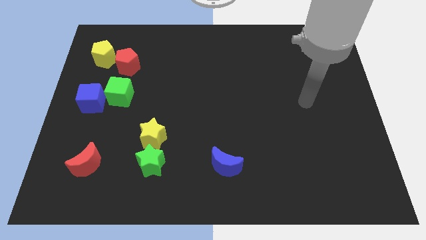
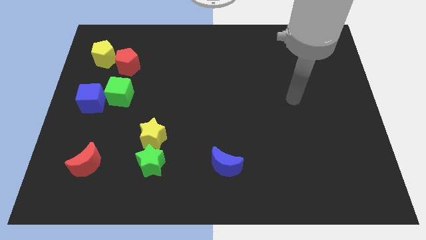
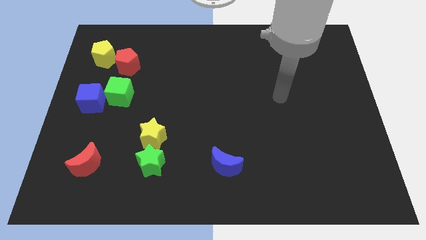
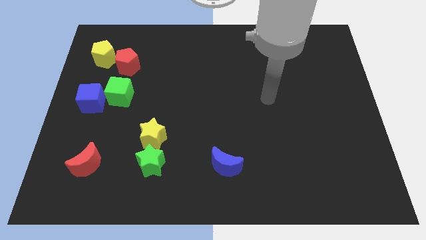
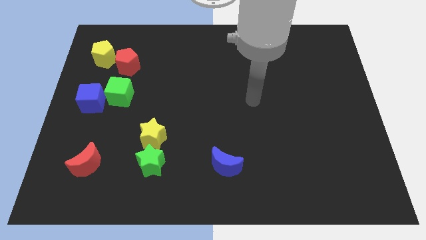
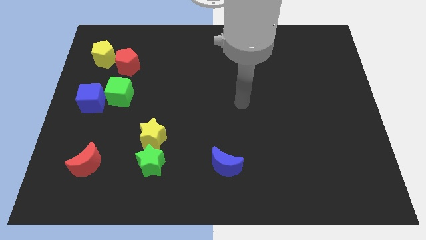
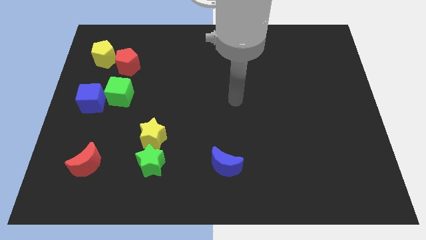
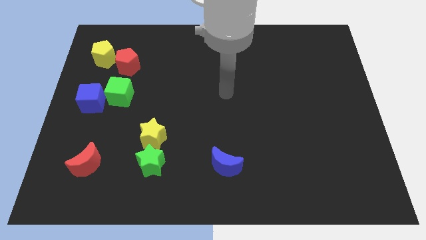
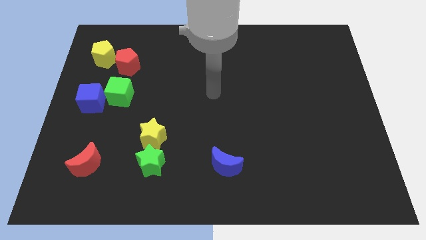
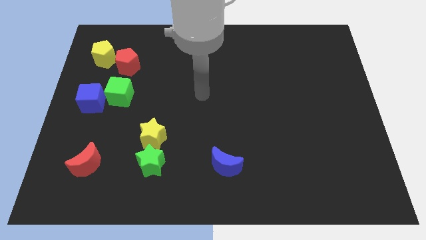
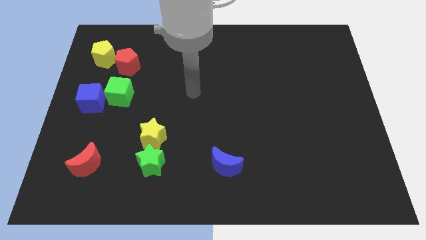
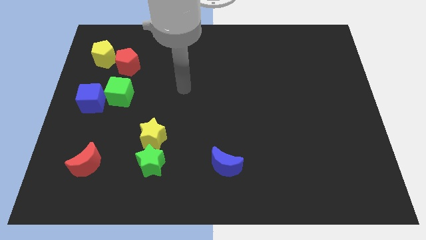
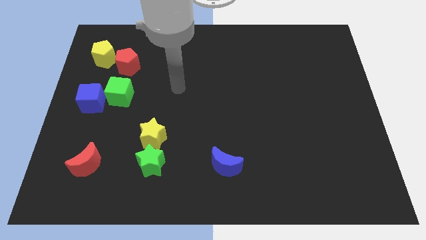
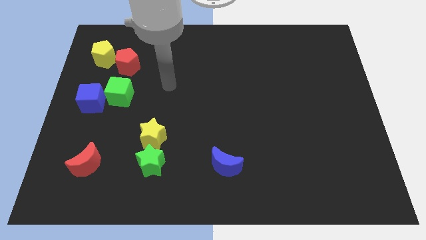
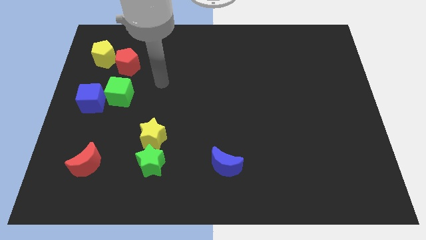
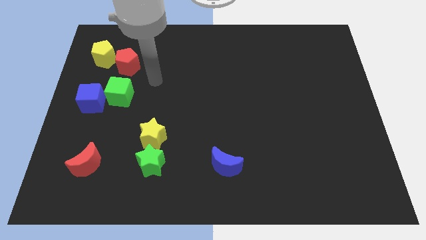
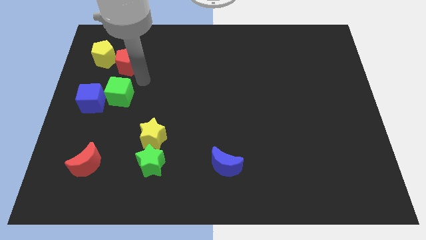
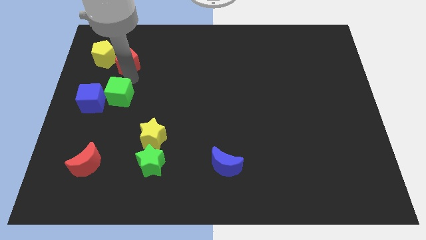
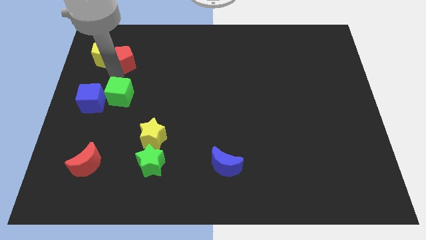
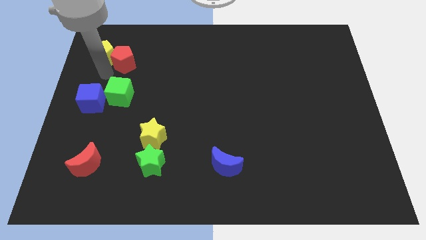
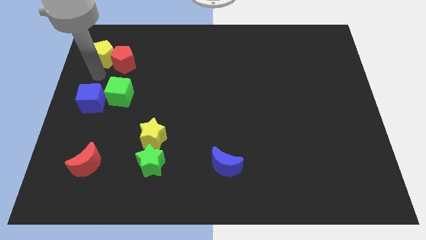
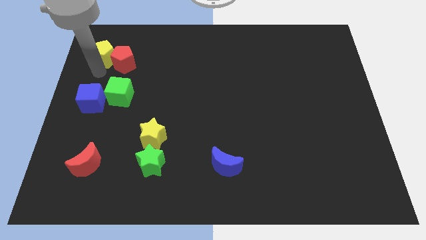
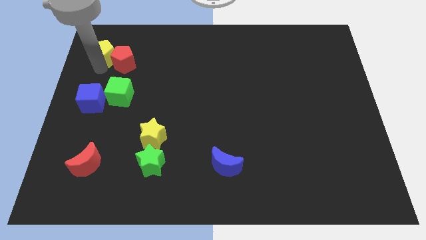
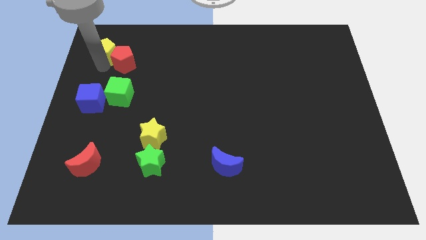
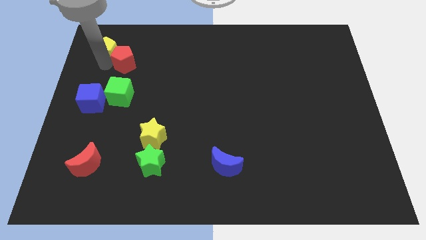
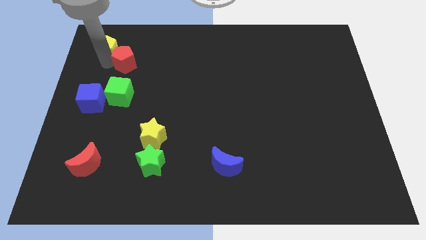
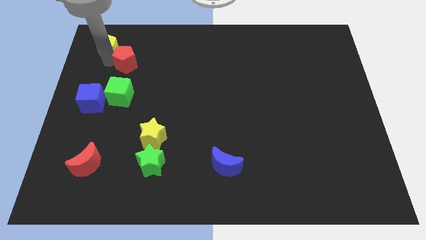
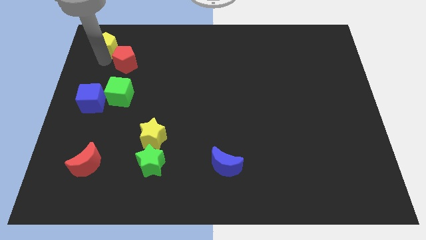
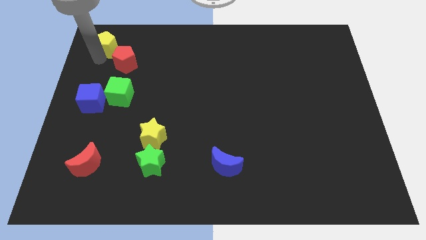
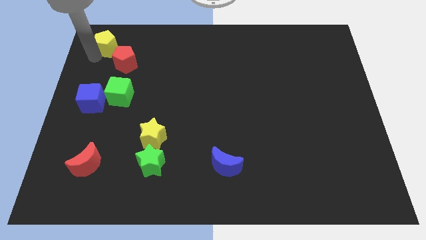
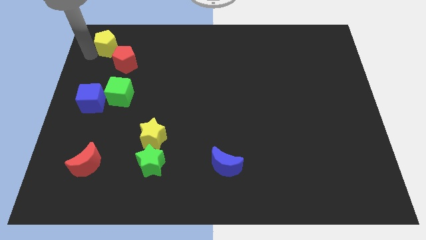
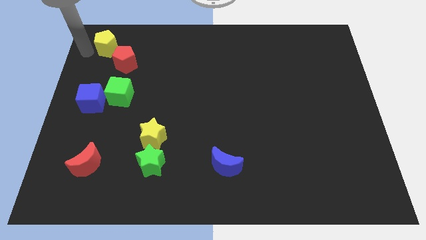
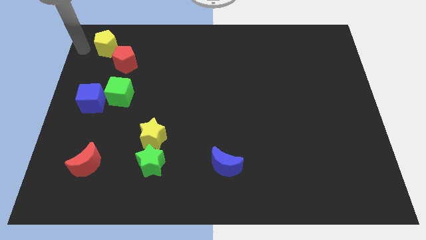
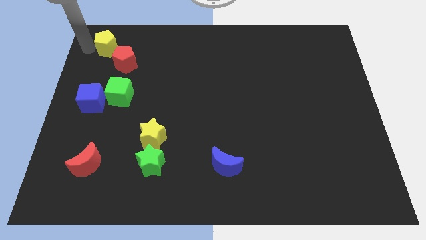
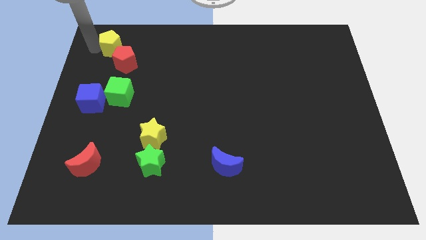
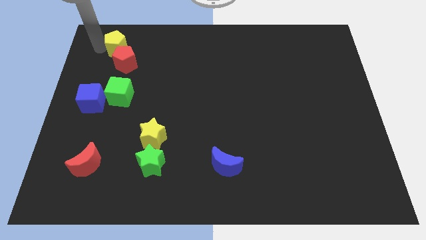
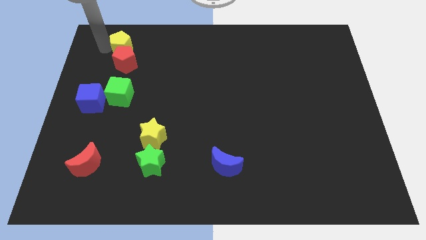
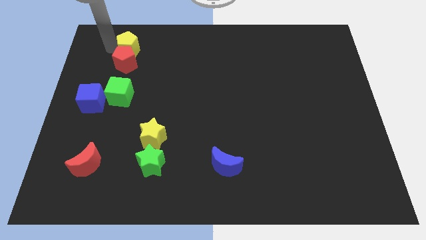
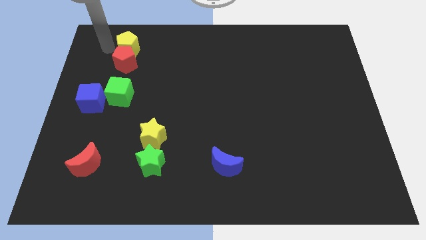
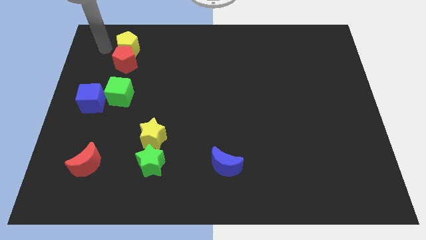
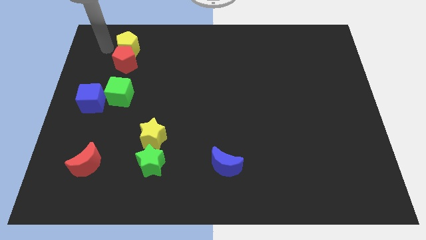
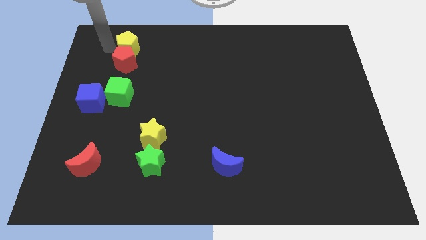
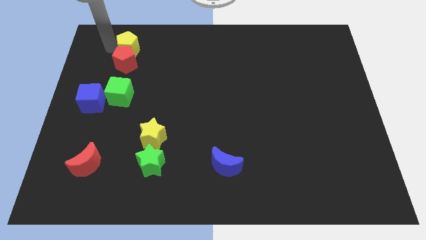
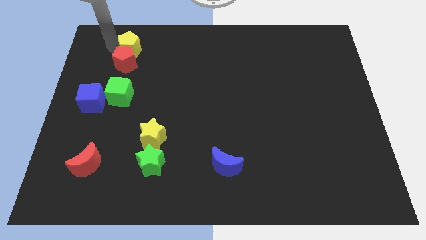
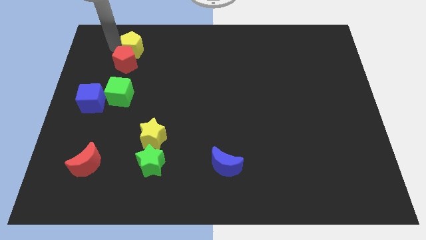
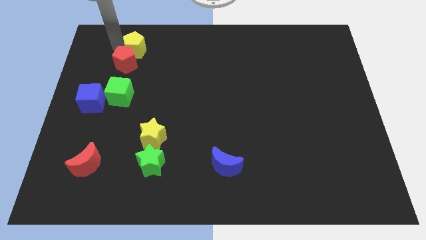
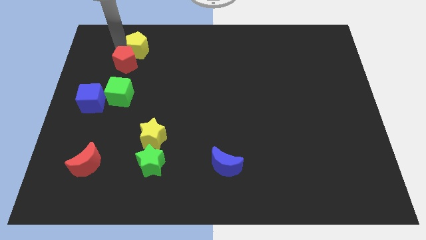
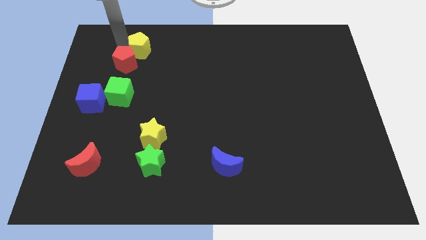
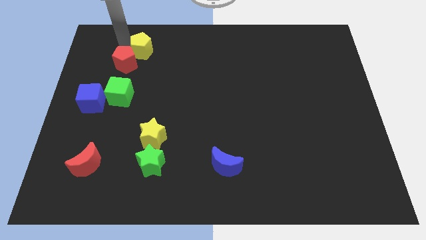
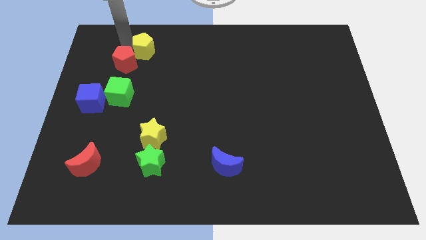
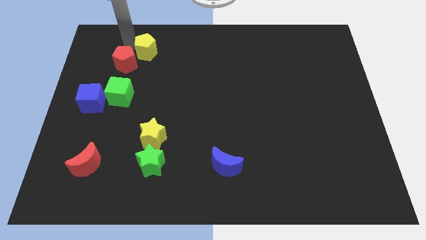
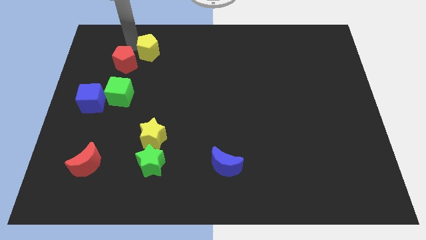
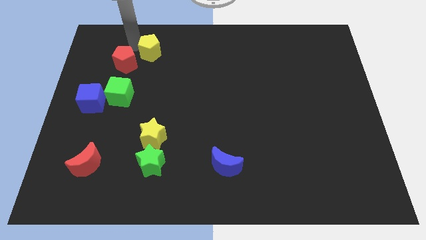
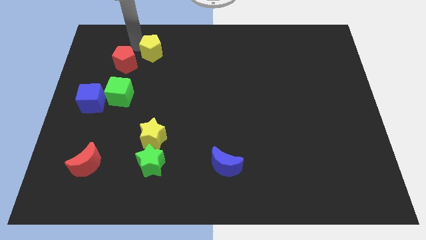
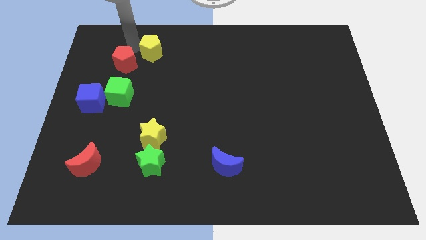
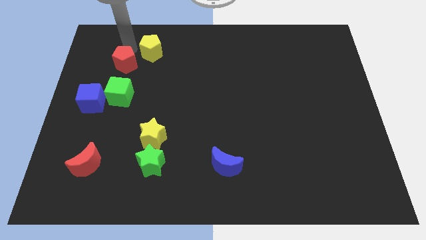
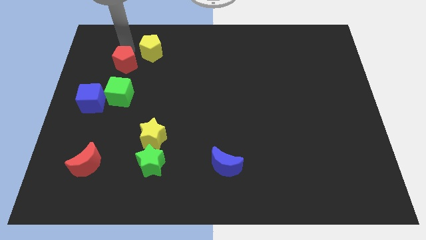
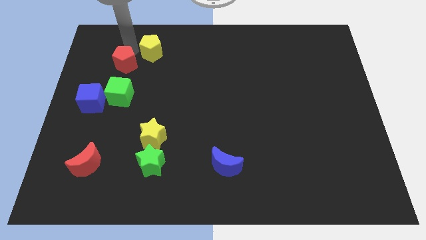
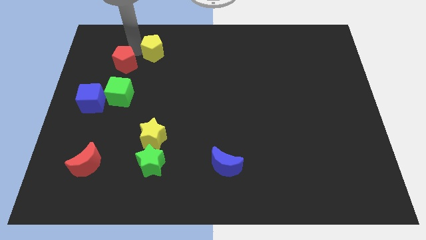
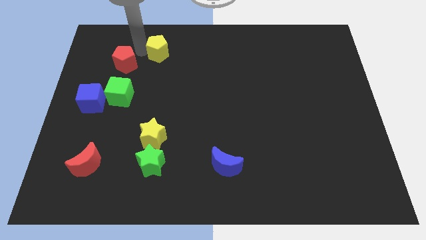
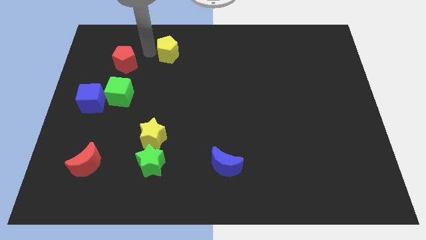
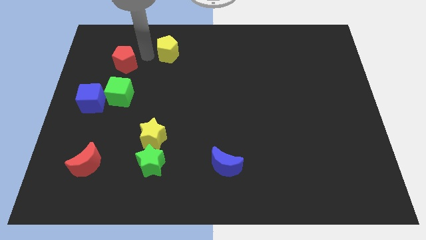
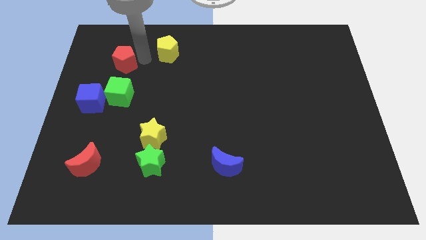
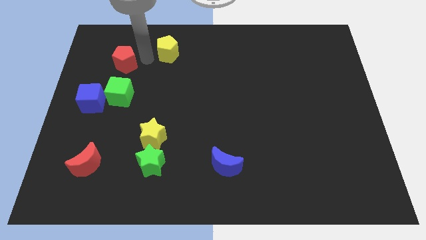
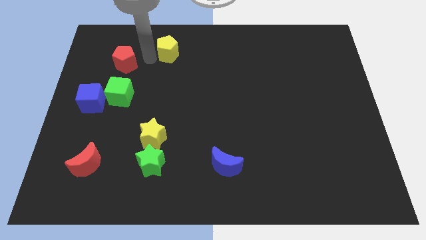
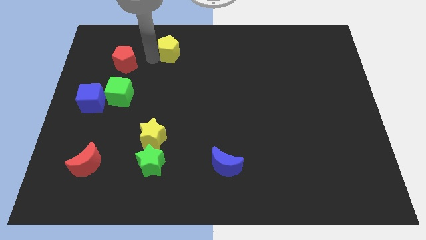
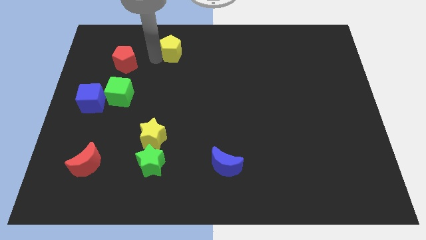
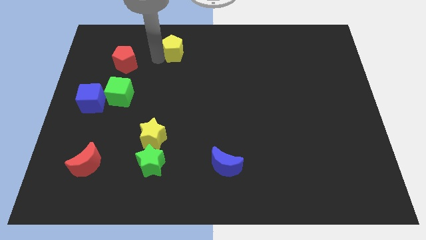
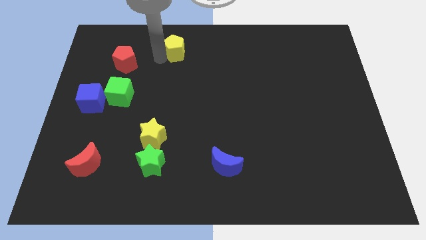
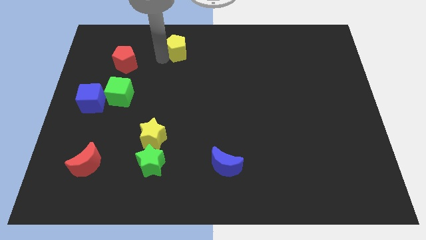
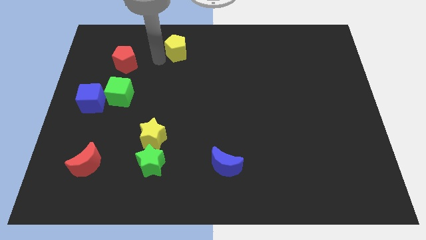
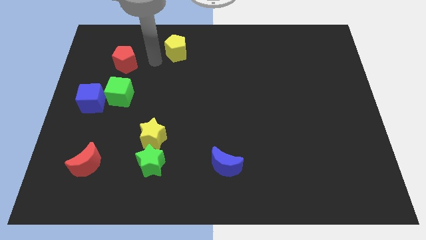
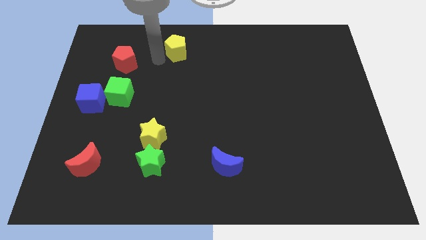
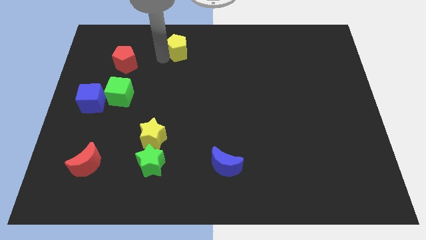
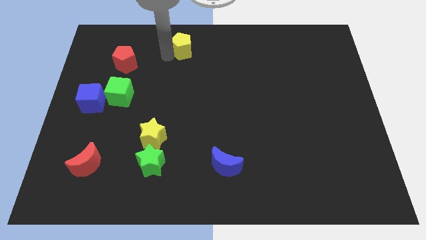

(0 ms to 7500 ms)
push the yellow pentagon to the right

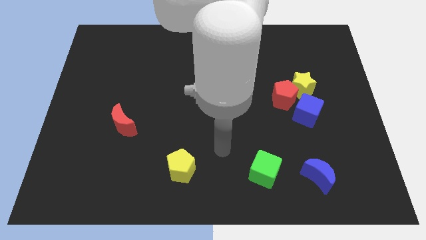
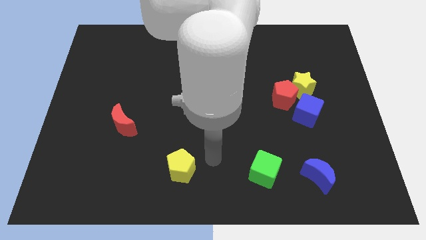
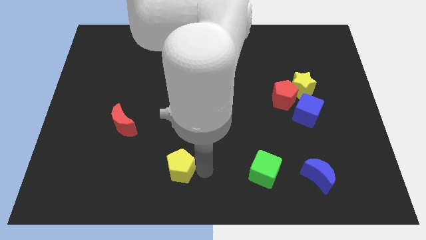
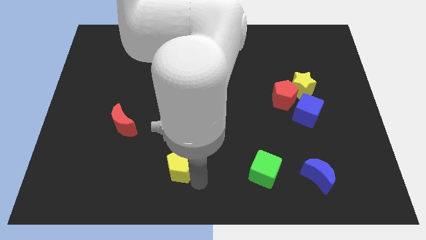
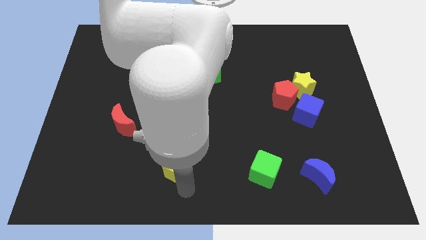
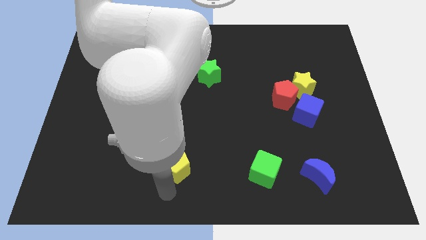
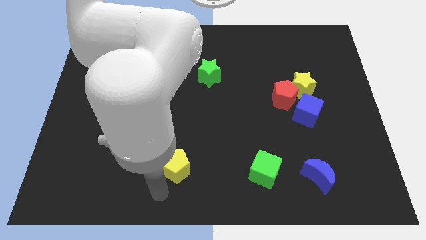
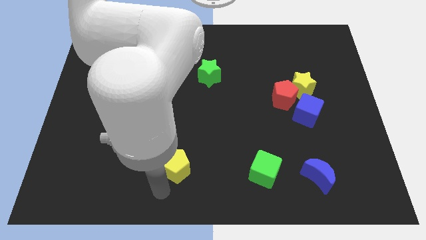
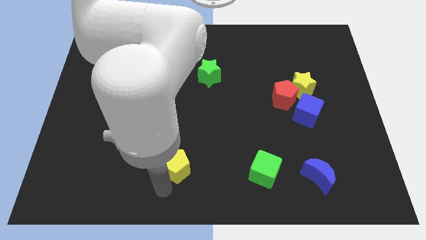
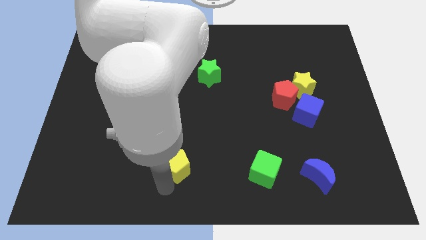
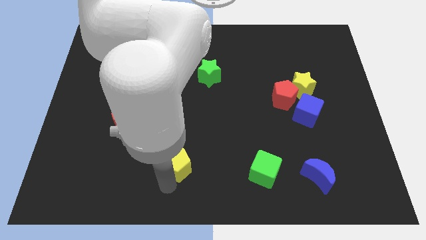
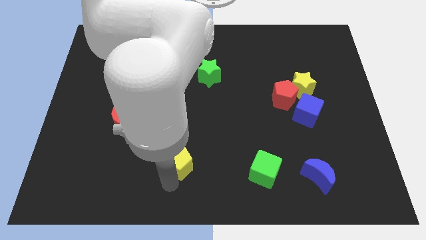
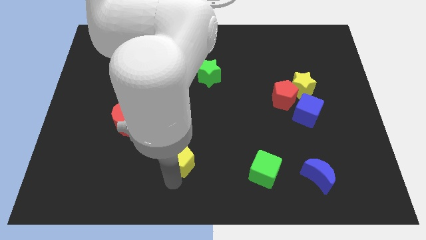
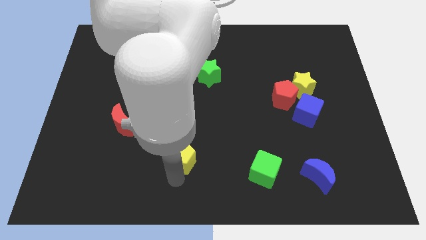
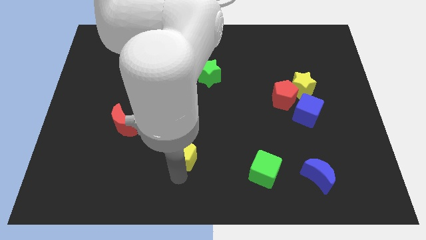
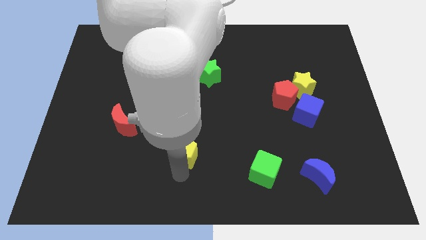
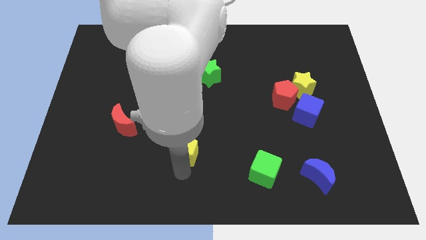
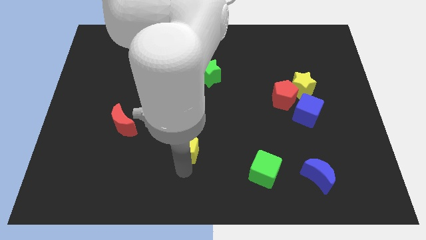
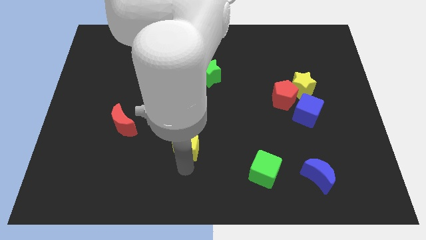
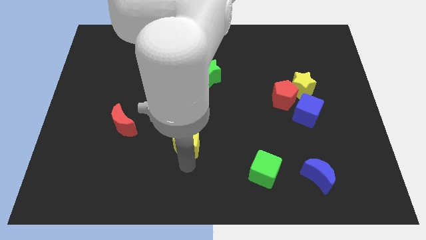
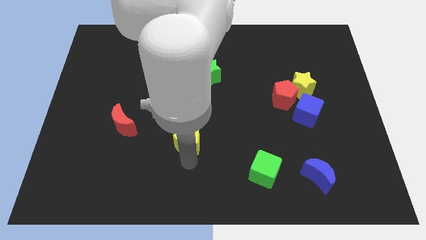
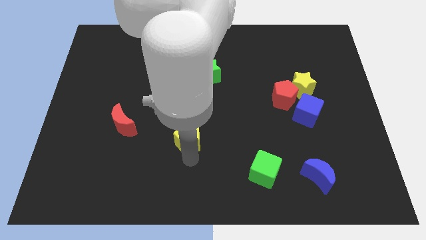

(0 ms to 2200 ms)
push the yellow pentagon up slightly
